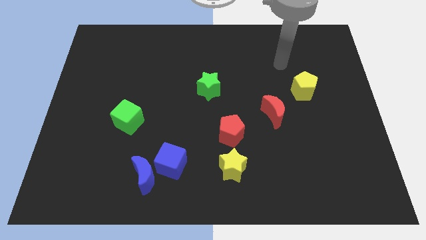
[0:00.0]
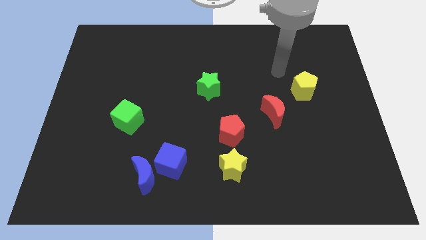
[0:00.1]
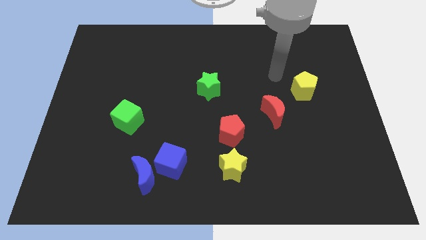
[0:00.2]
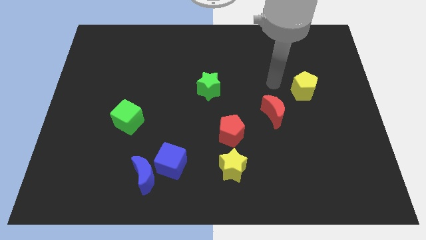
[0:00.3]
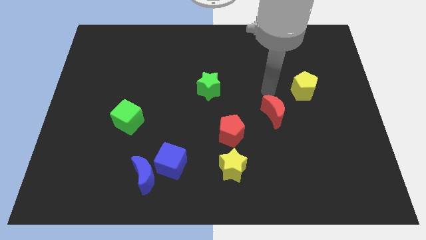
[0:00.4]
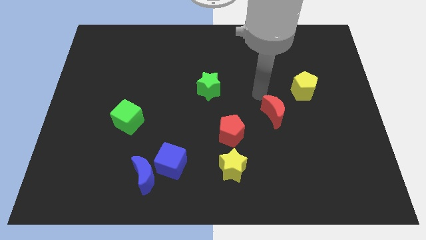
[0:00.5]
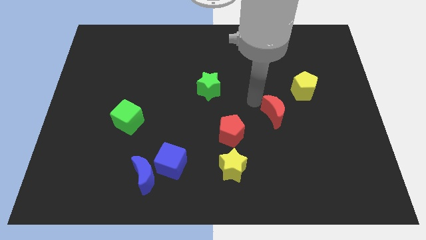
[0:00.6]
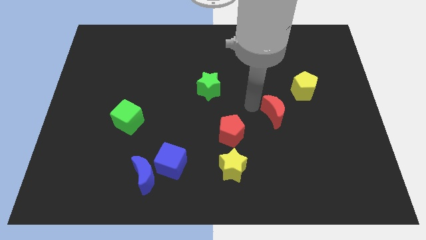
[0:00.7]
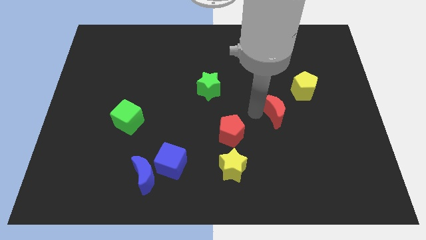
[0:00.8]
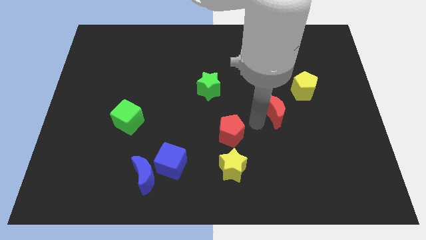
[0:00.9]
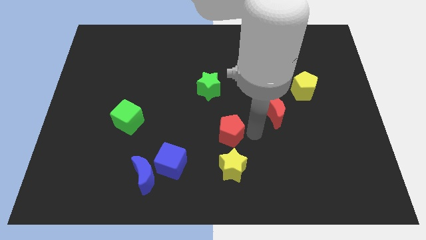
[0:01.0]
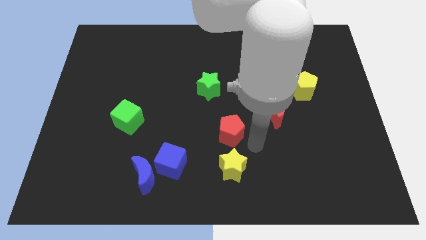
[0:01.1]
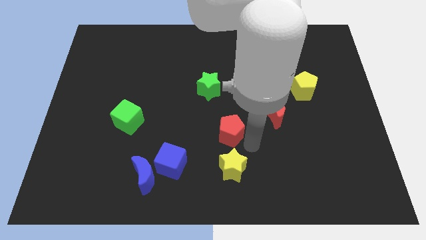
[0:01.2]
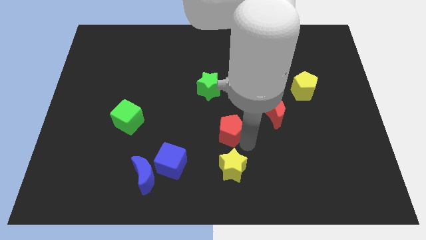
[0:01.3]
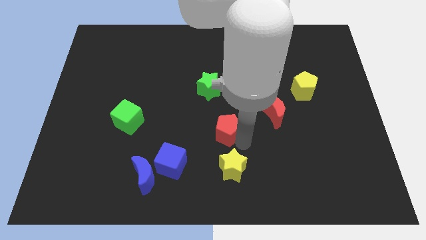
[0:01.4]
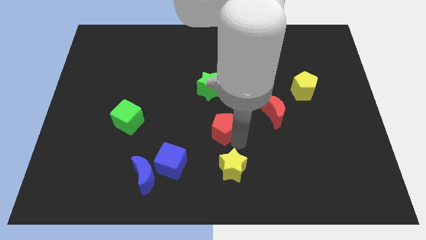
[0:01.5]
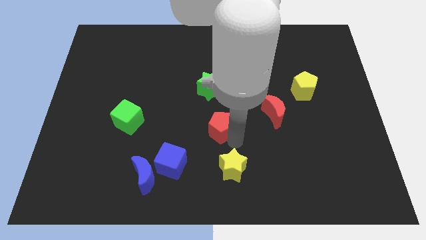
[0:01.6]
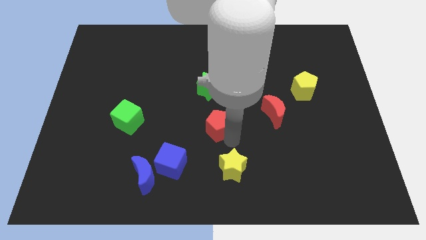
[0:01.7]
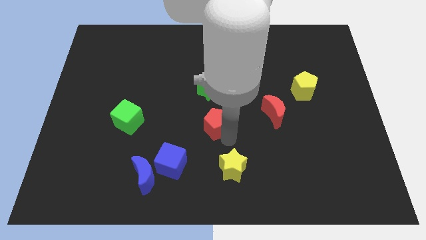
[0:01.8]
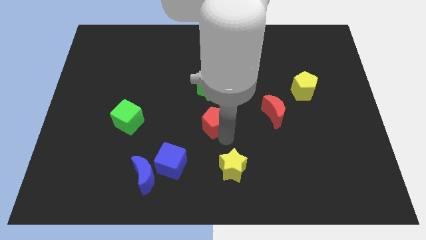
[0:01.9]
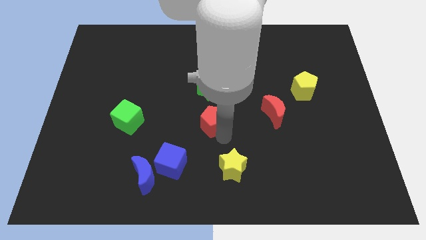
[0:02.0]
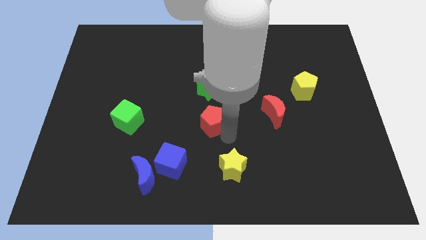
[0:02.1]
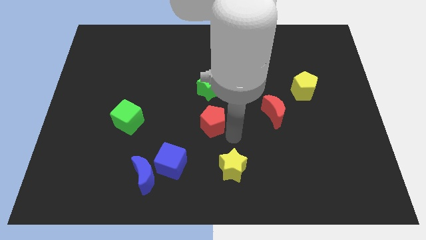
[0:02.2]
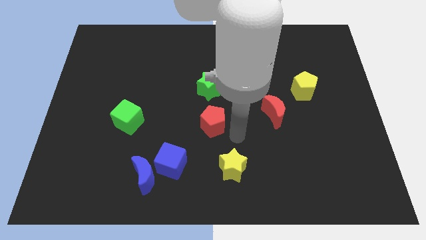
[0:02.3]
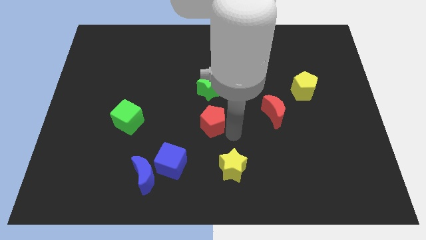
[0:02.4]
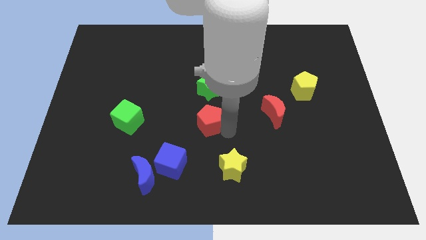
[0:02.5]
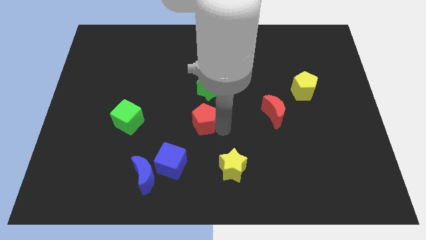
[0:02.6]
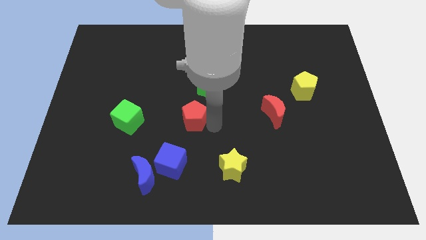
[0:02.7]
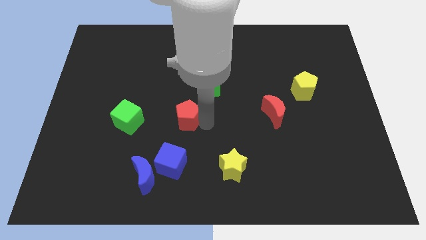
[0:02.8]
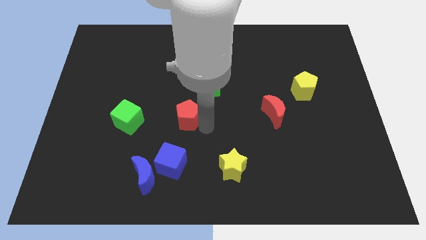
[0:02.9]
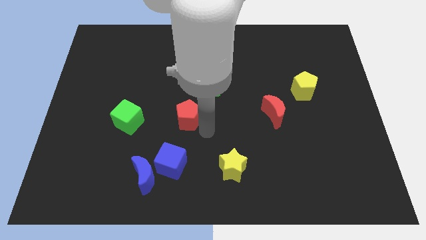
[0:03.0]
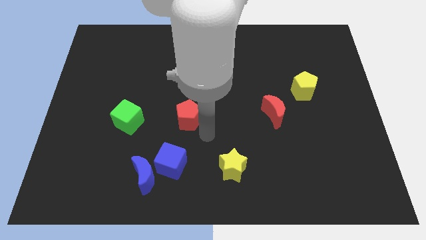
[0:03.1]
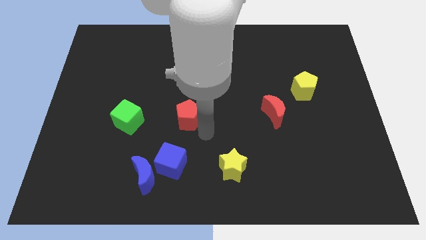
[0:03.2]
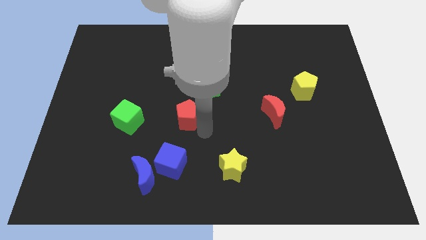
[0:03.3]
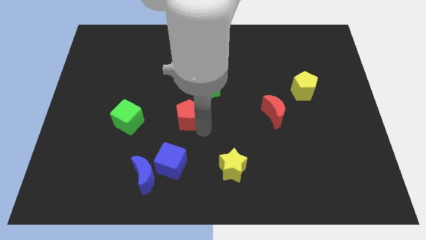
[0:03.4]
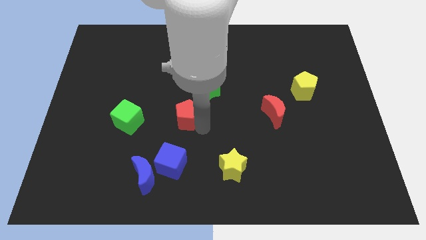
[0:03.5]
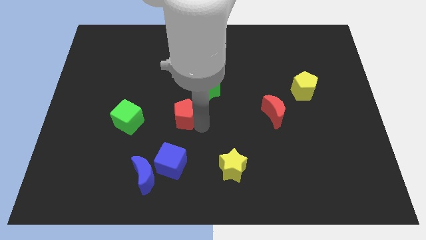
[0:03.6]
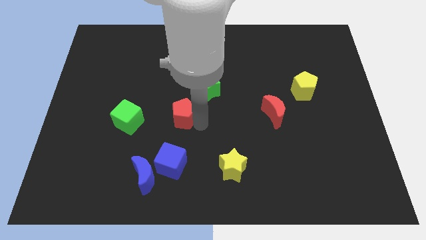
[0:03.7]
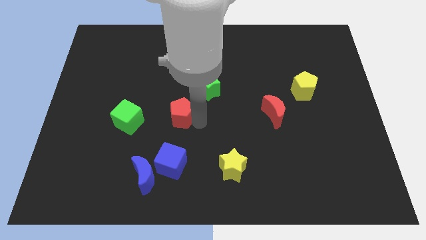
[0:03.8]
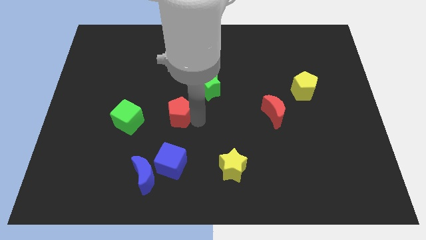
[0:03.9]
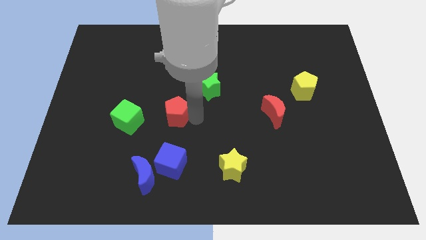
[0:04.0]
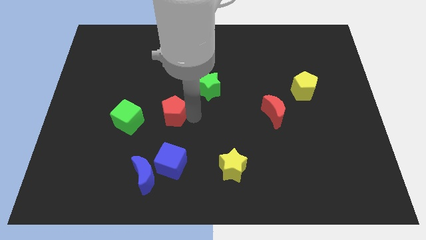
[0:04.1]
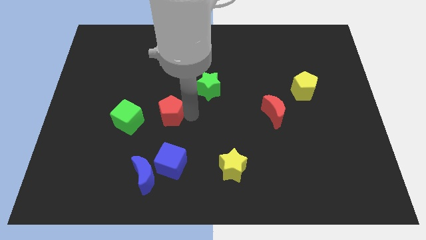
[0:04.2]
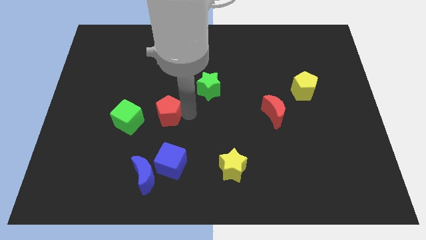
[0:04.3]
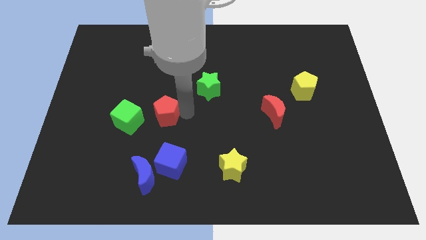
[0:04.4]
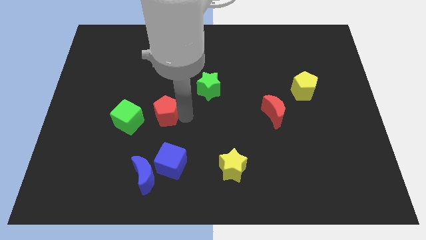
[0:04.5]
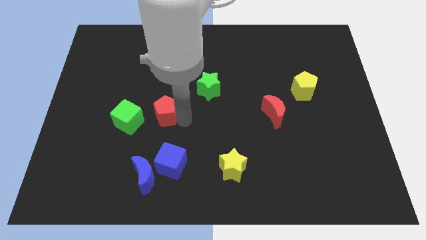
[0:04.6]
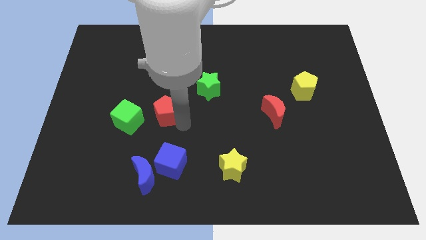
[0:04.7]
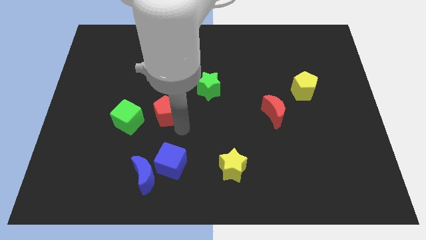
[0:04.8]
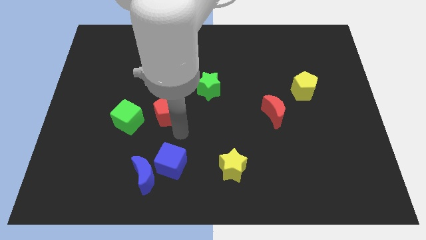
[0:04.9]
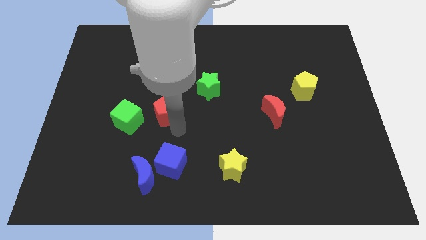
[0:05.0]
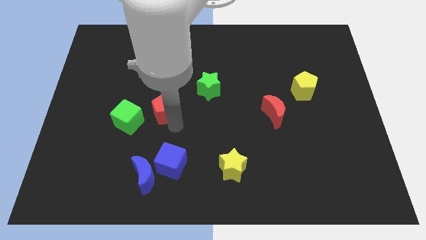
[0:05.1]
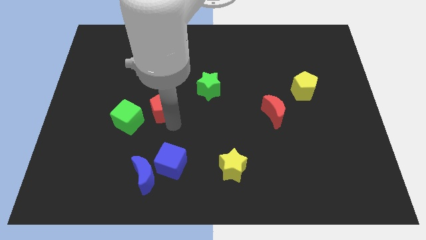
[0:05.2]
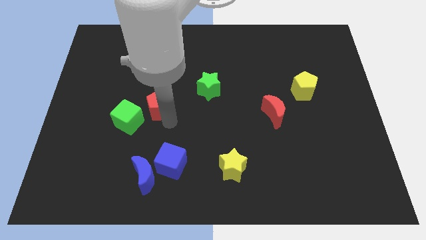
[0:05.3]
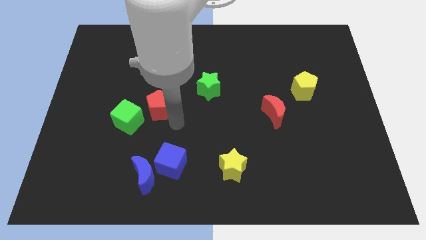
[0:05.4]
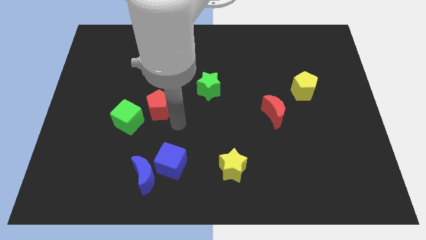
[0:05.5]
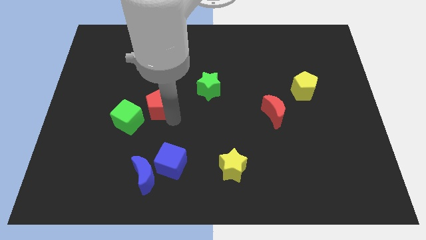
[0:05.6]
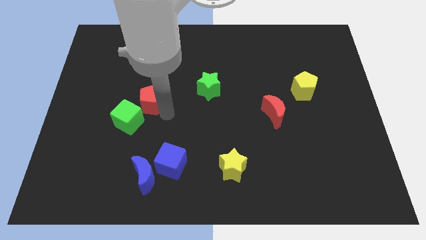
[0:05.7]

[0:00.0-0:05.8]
slide the red pentagon above the green cube
